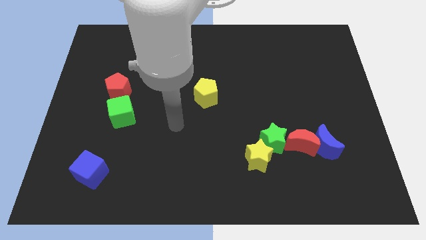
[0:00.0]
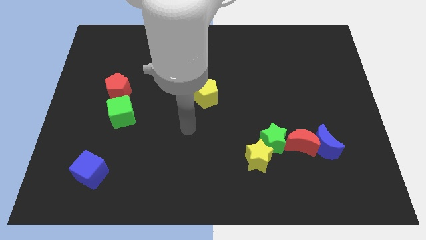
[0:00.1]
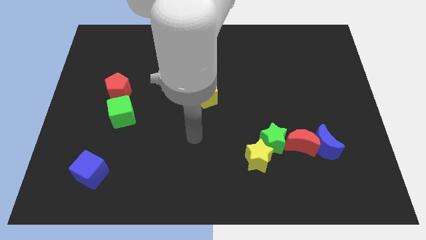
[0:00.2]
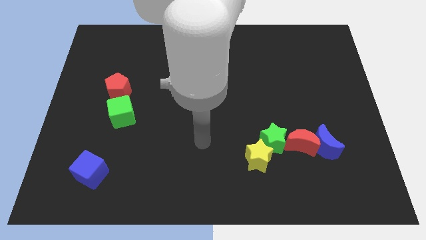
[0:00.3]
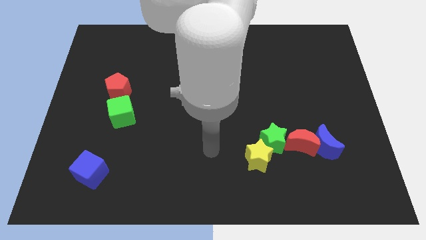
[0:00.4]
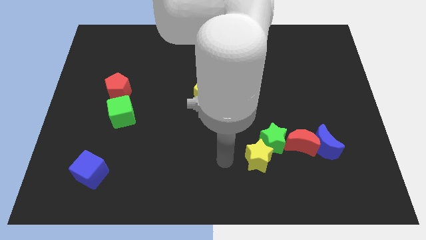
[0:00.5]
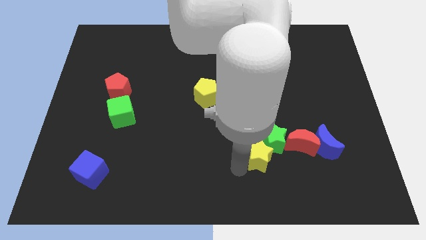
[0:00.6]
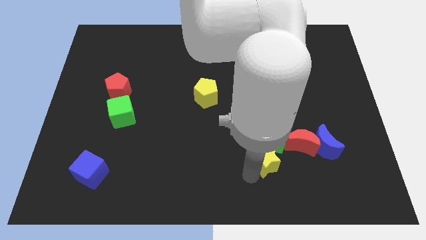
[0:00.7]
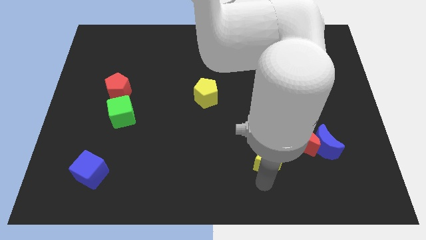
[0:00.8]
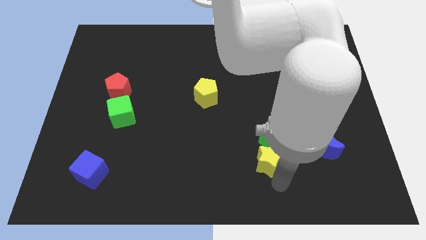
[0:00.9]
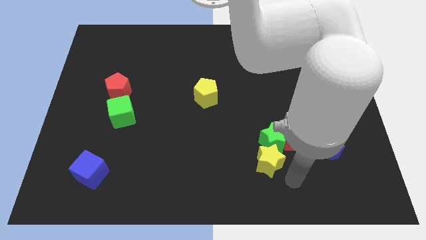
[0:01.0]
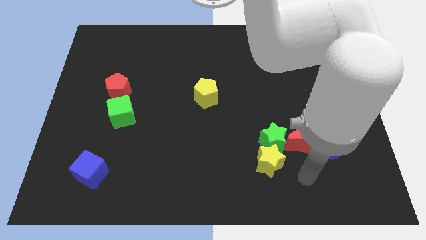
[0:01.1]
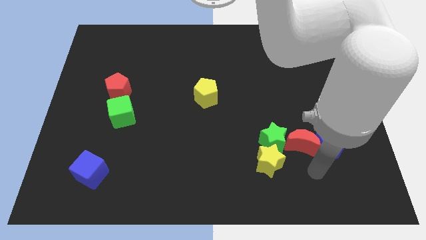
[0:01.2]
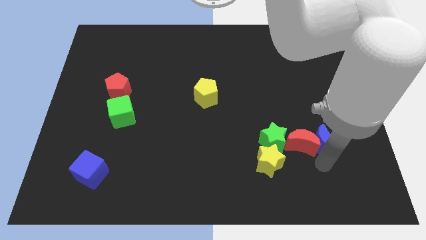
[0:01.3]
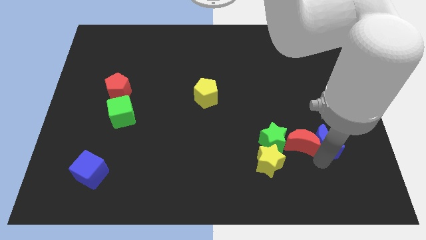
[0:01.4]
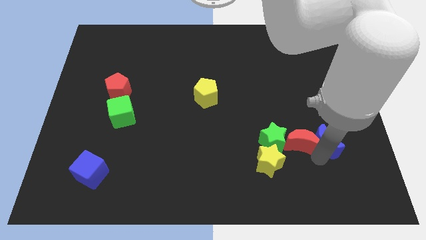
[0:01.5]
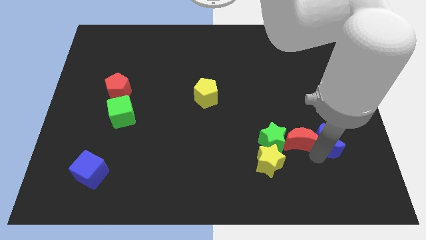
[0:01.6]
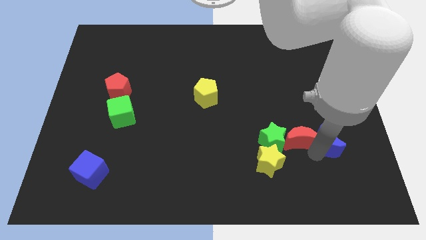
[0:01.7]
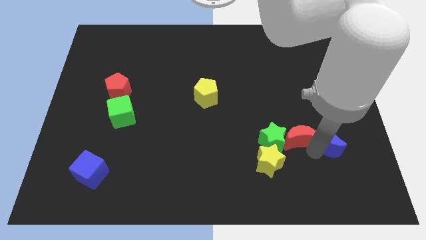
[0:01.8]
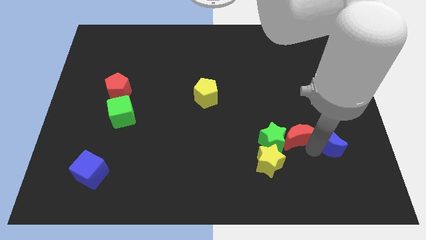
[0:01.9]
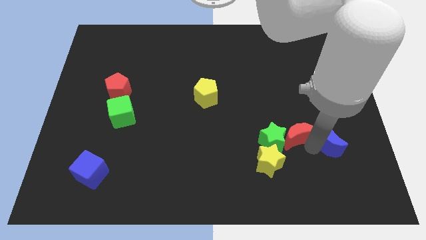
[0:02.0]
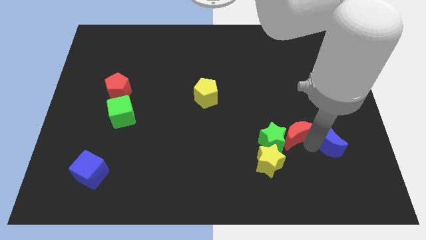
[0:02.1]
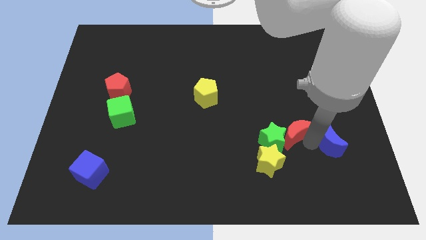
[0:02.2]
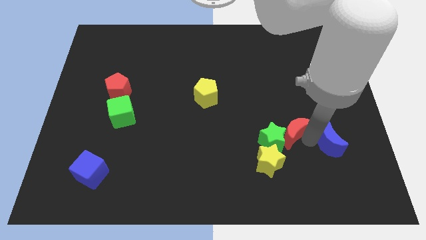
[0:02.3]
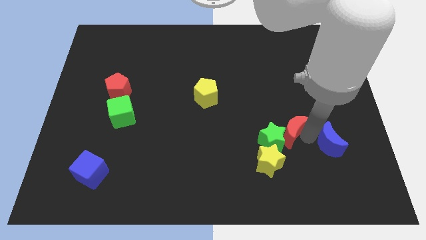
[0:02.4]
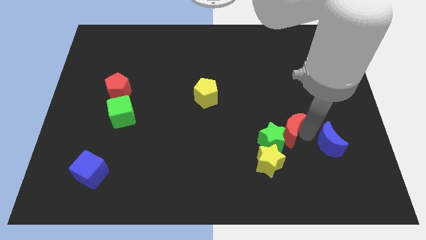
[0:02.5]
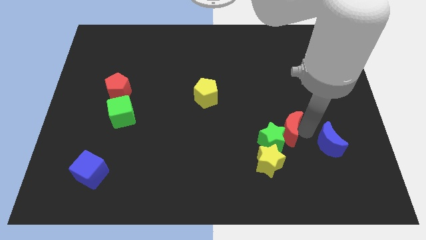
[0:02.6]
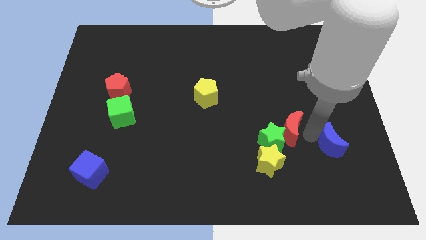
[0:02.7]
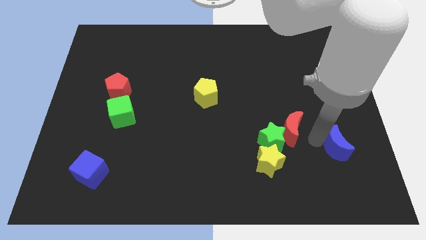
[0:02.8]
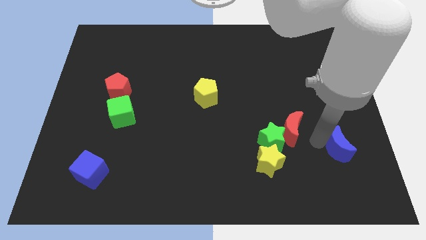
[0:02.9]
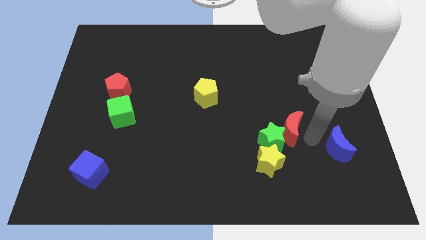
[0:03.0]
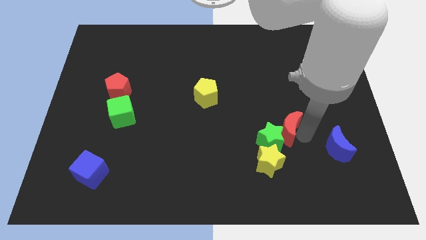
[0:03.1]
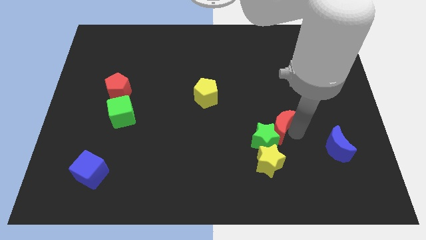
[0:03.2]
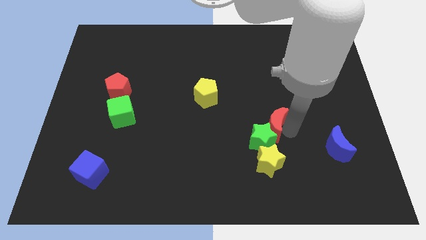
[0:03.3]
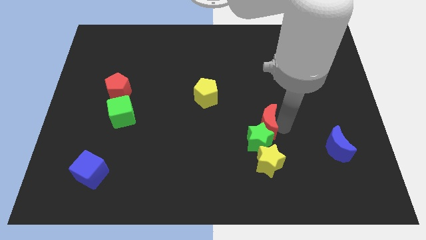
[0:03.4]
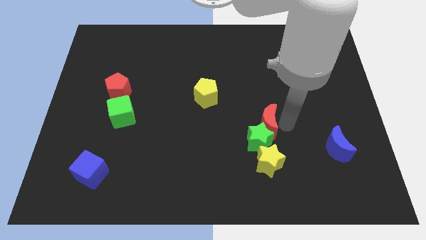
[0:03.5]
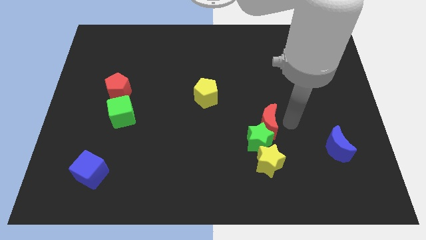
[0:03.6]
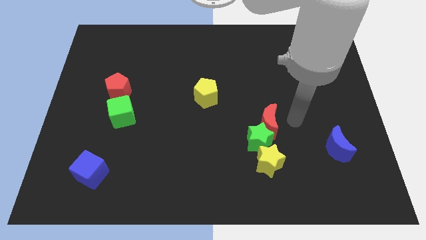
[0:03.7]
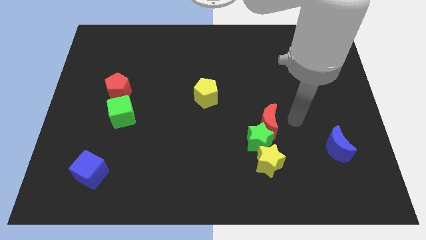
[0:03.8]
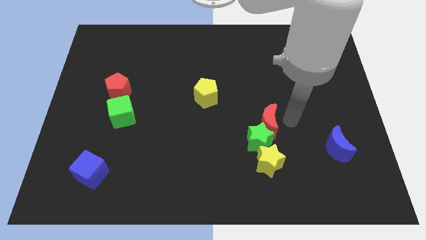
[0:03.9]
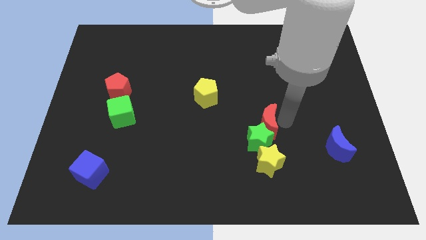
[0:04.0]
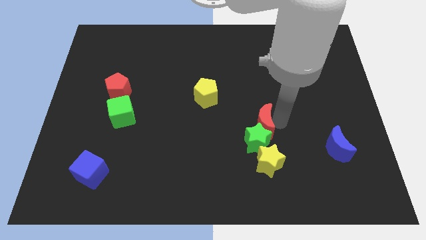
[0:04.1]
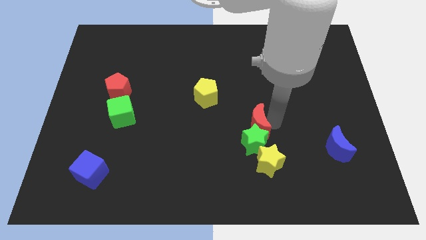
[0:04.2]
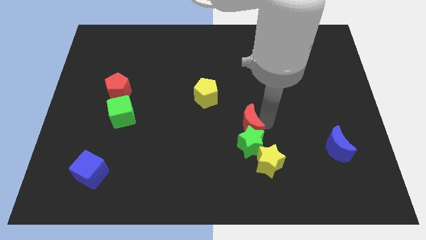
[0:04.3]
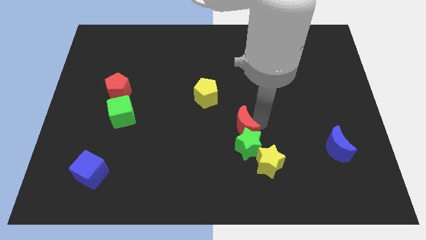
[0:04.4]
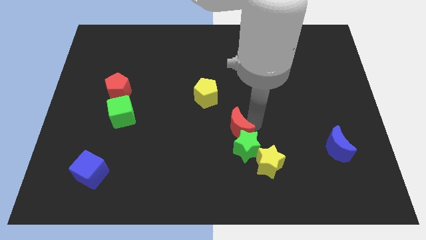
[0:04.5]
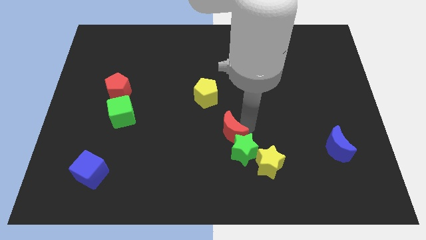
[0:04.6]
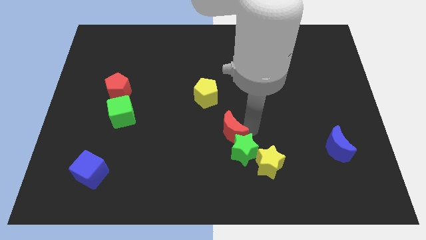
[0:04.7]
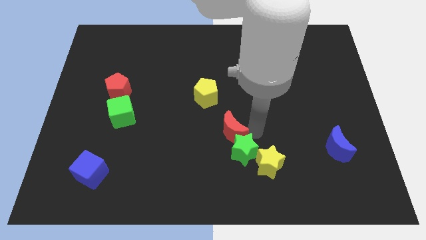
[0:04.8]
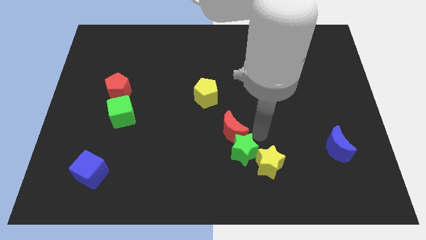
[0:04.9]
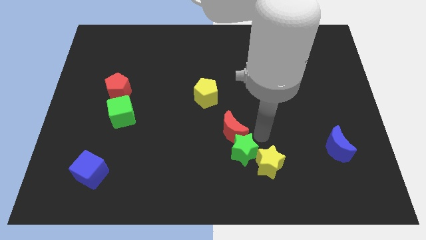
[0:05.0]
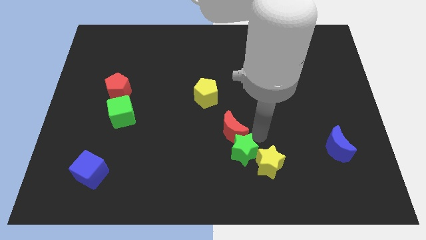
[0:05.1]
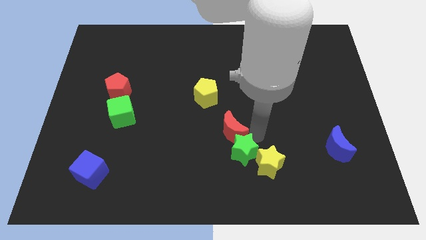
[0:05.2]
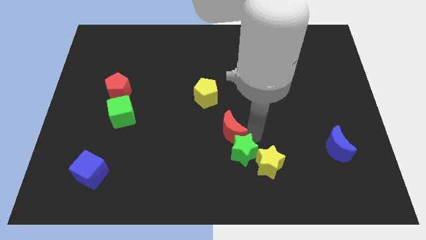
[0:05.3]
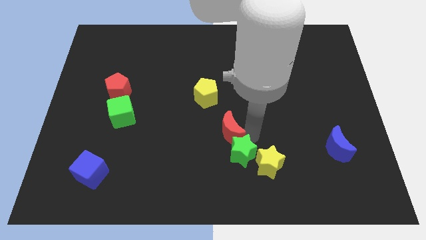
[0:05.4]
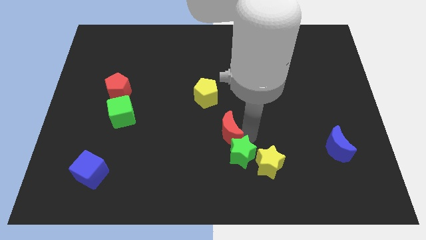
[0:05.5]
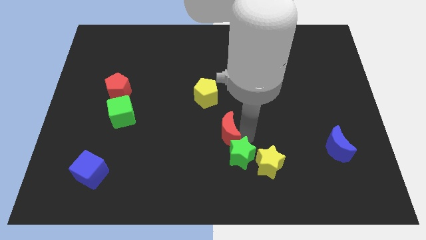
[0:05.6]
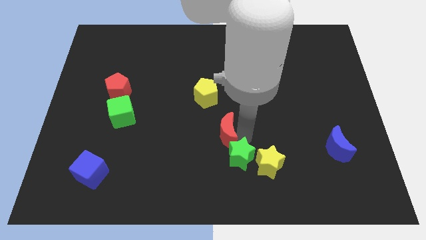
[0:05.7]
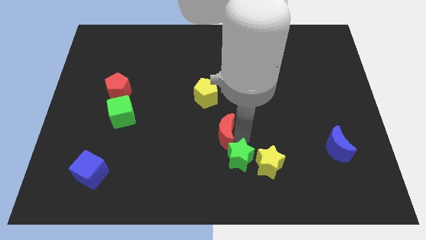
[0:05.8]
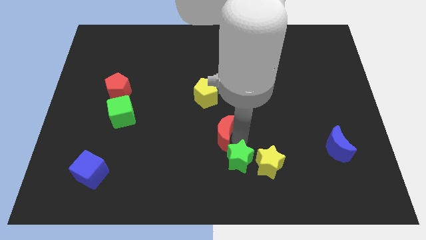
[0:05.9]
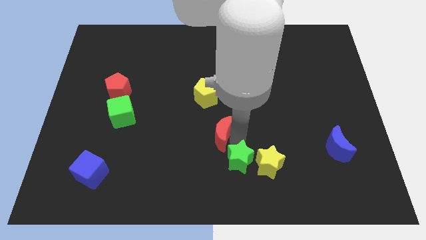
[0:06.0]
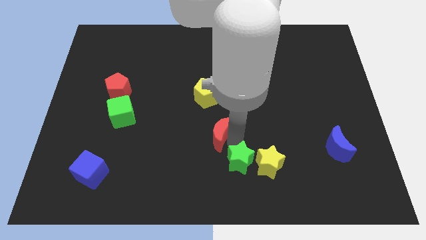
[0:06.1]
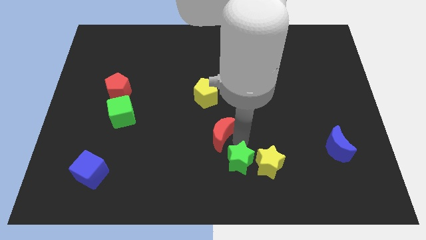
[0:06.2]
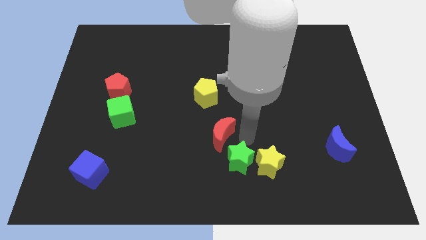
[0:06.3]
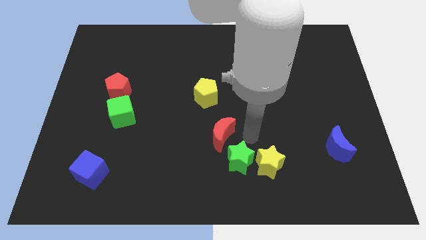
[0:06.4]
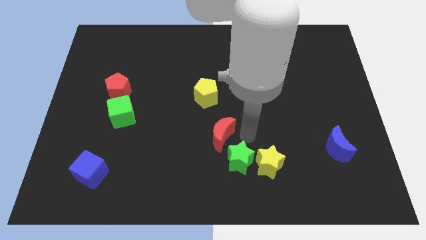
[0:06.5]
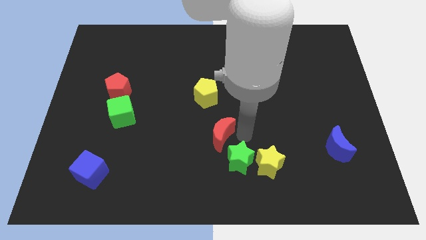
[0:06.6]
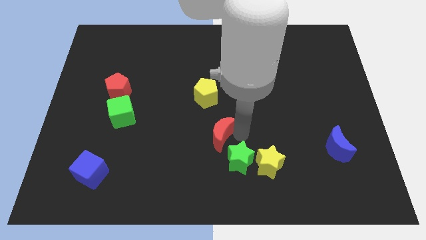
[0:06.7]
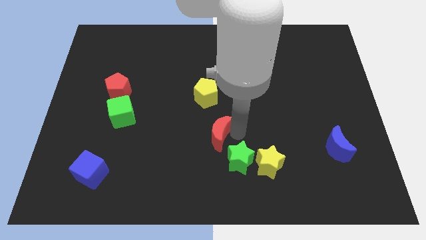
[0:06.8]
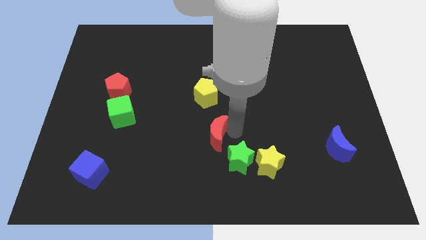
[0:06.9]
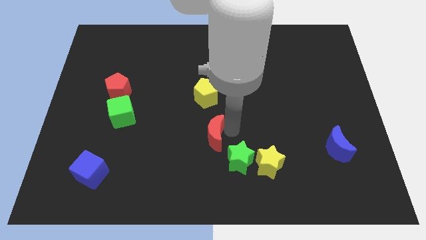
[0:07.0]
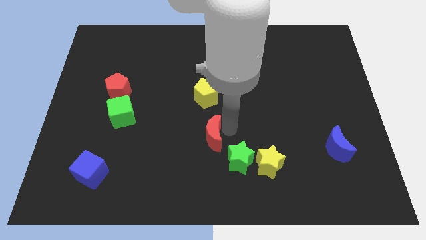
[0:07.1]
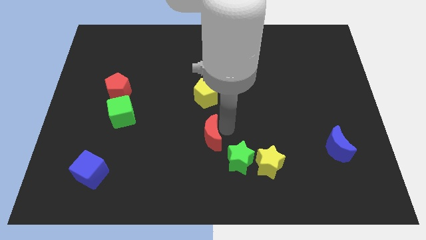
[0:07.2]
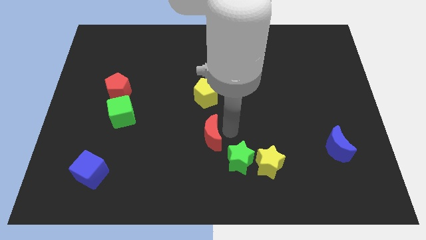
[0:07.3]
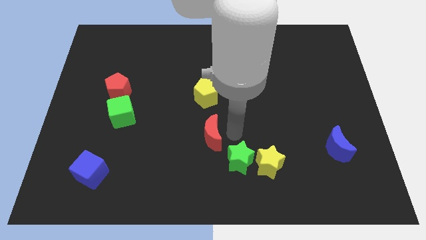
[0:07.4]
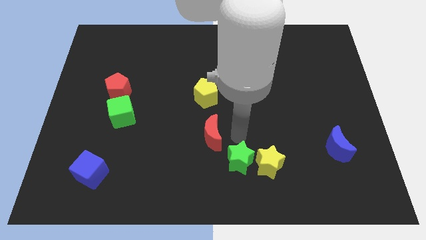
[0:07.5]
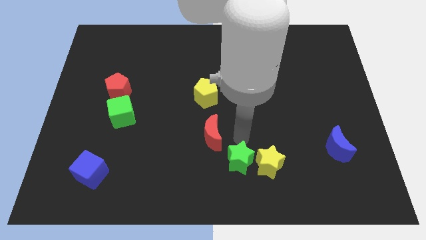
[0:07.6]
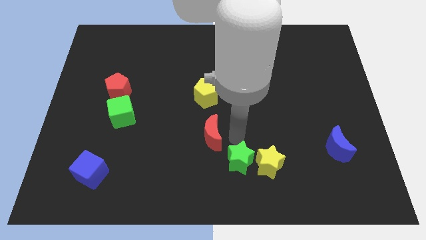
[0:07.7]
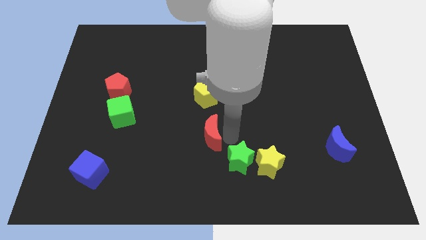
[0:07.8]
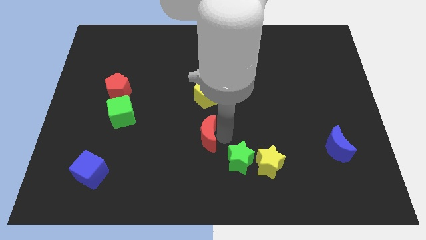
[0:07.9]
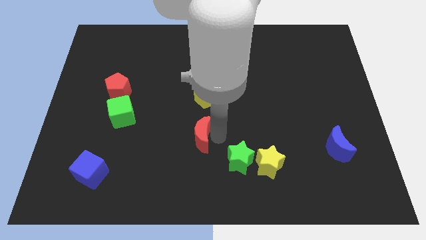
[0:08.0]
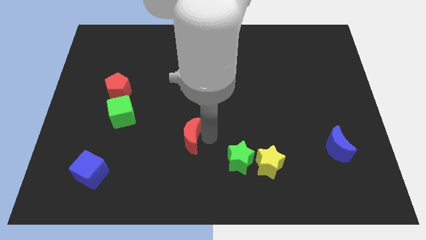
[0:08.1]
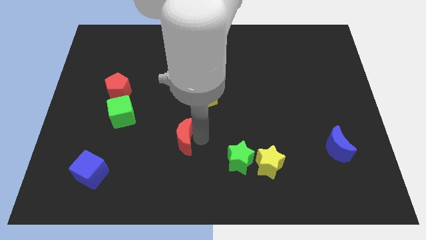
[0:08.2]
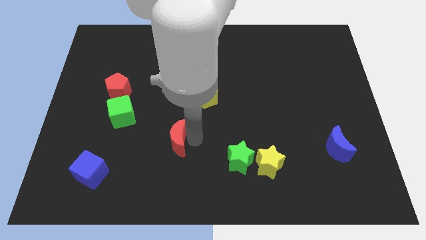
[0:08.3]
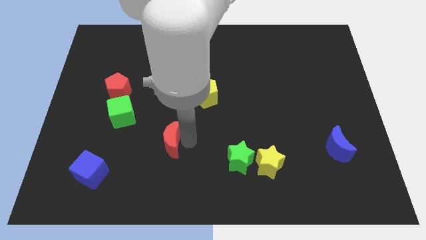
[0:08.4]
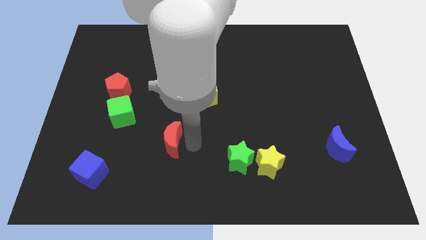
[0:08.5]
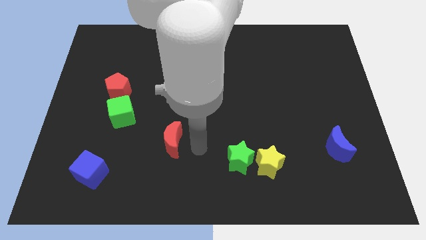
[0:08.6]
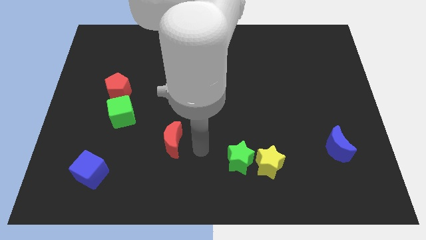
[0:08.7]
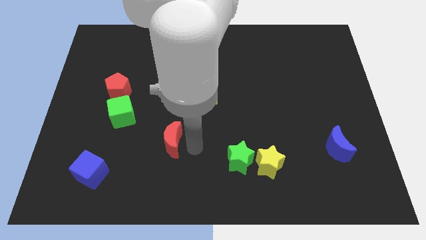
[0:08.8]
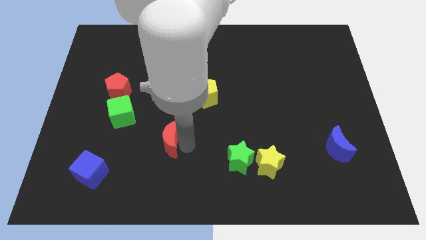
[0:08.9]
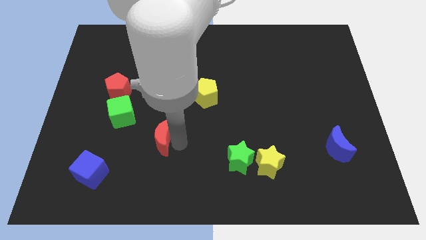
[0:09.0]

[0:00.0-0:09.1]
push the red moon to the bottom right side of the green cube
